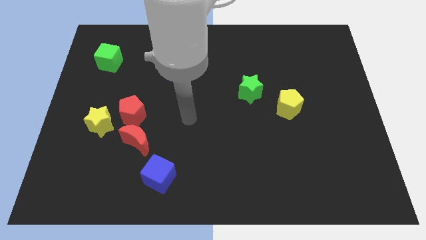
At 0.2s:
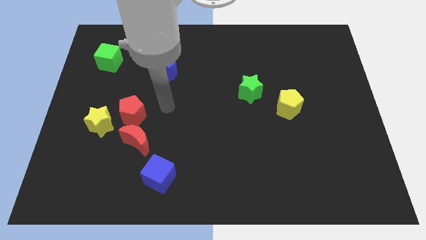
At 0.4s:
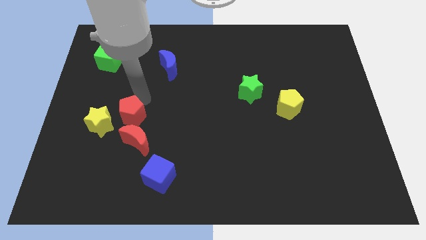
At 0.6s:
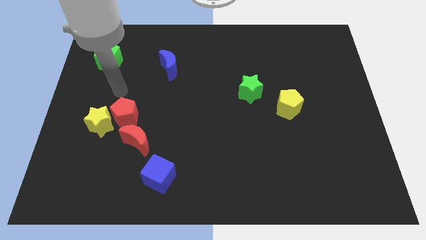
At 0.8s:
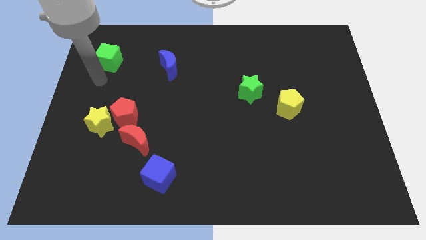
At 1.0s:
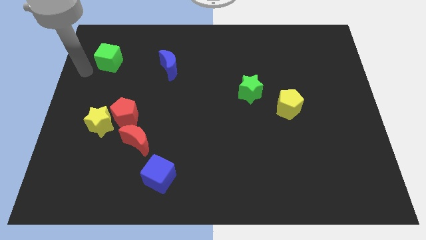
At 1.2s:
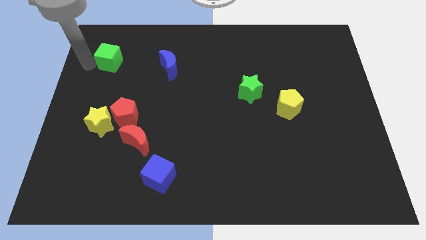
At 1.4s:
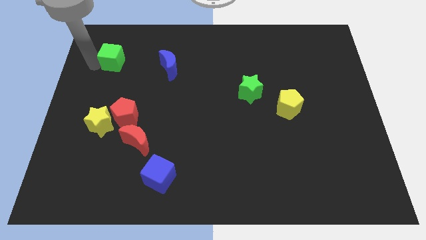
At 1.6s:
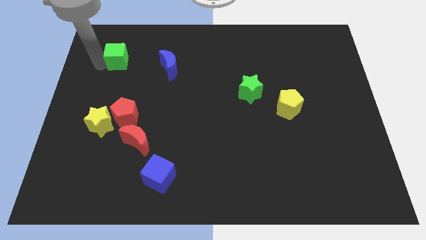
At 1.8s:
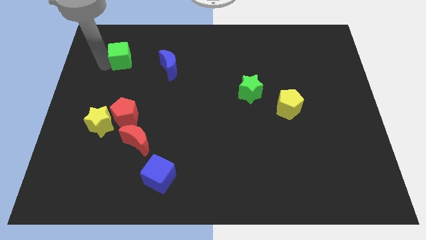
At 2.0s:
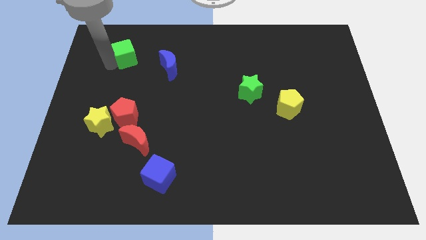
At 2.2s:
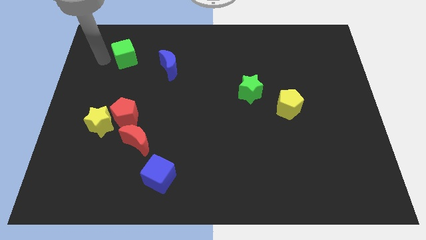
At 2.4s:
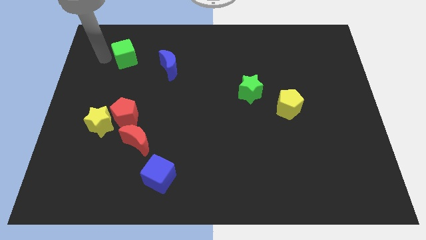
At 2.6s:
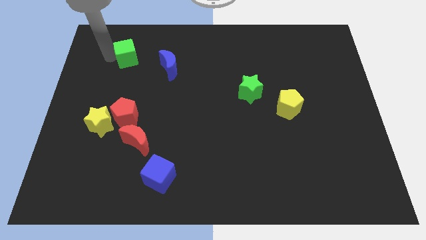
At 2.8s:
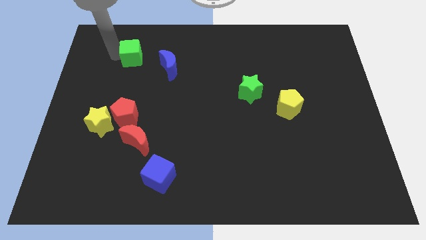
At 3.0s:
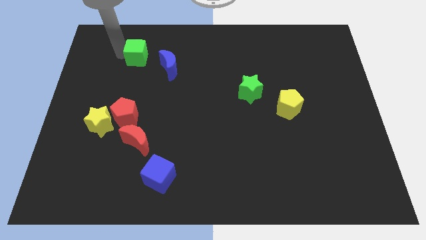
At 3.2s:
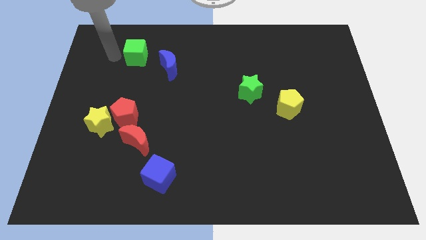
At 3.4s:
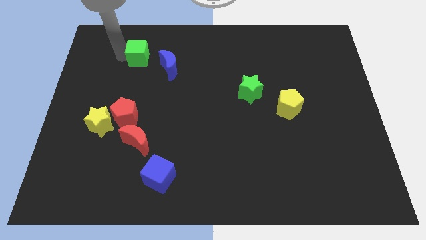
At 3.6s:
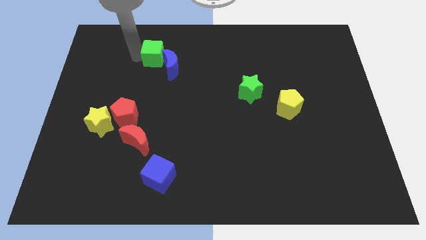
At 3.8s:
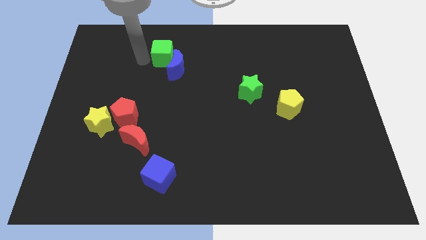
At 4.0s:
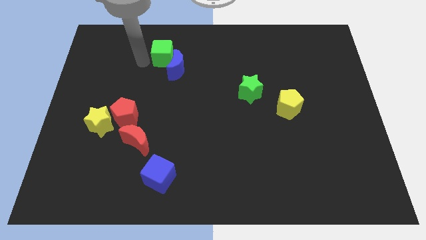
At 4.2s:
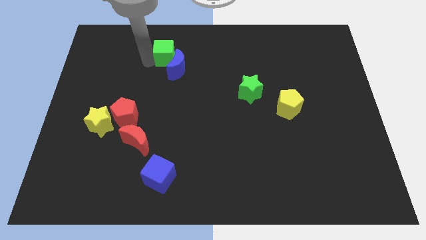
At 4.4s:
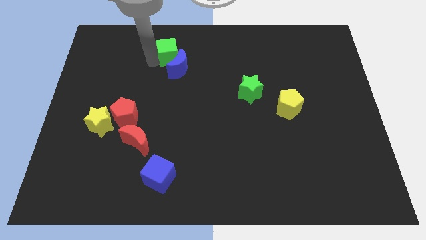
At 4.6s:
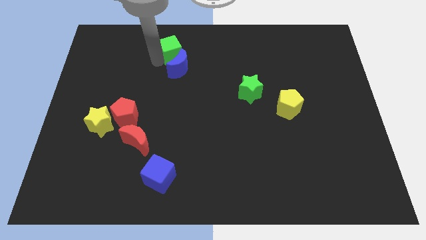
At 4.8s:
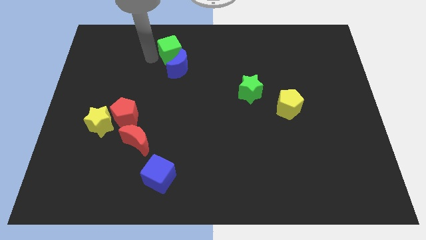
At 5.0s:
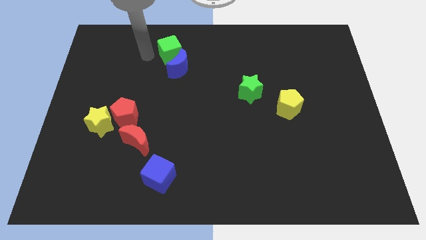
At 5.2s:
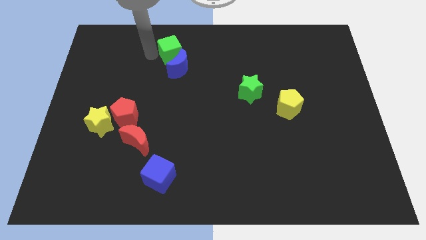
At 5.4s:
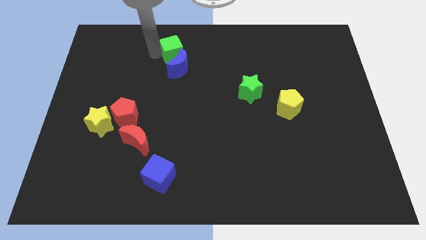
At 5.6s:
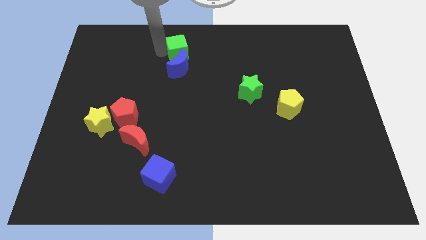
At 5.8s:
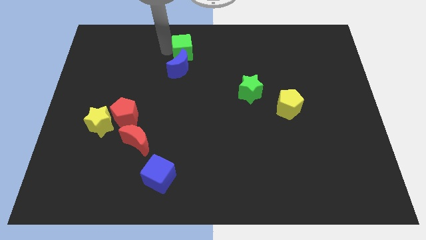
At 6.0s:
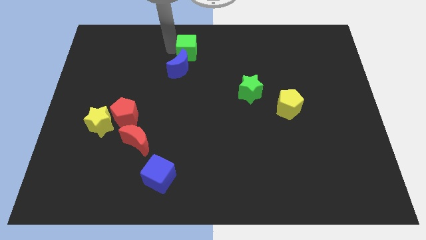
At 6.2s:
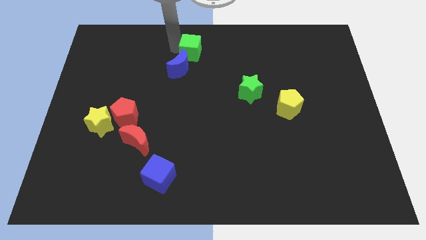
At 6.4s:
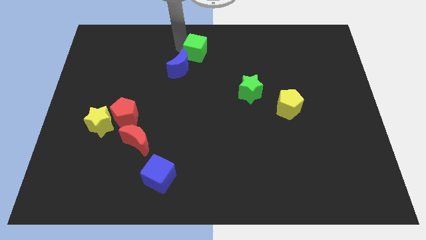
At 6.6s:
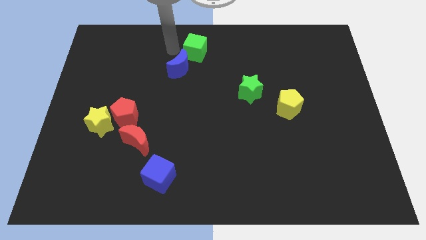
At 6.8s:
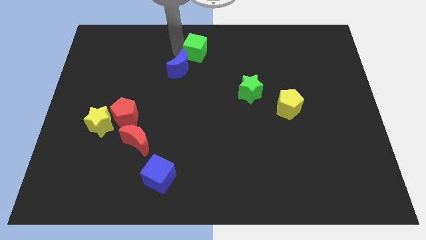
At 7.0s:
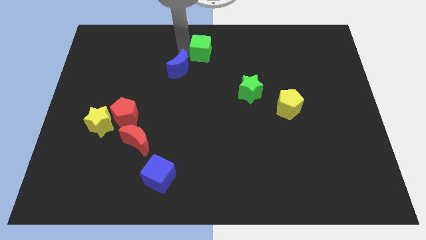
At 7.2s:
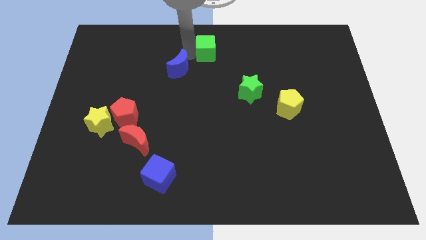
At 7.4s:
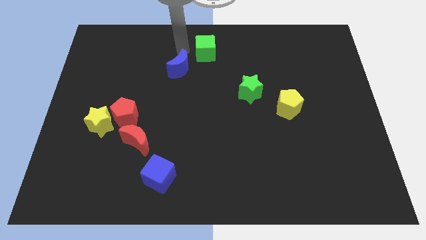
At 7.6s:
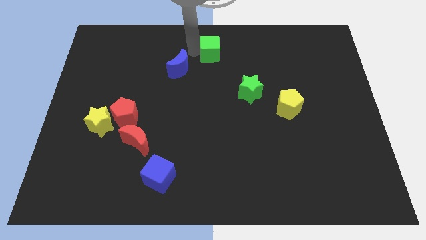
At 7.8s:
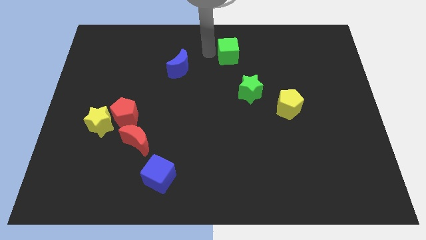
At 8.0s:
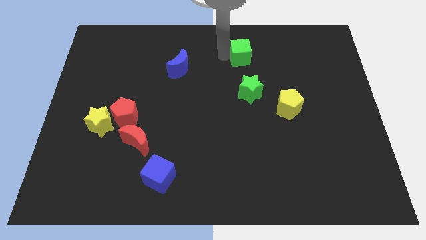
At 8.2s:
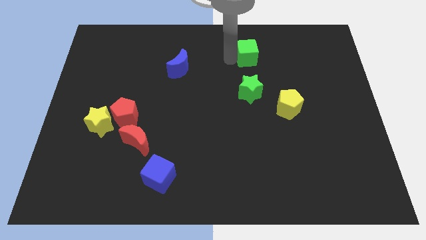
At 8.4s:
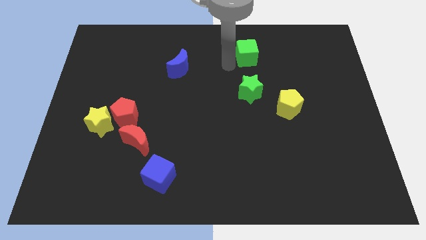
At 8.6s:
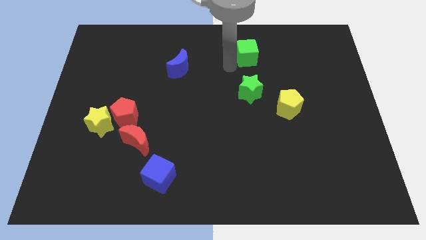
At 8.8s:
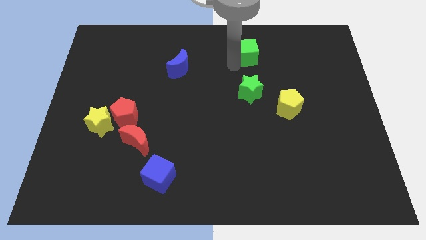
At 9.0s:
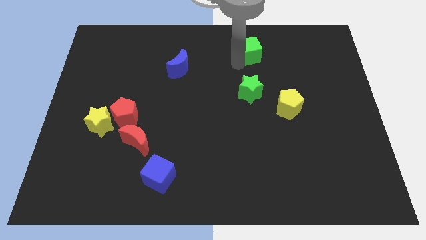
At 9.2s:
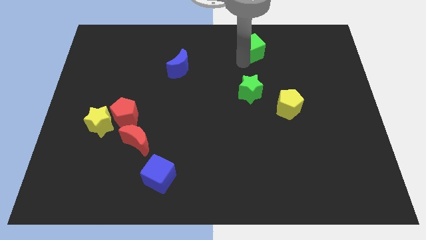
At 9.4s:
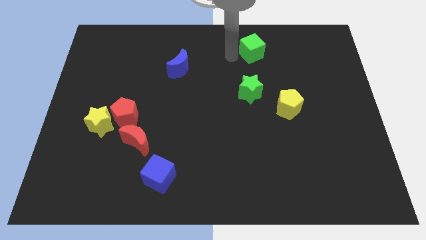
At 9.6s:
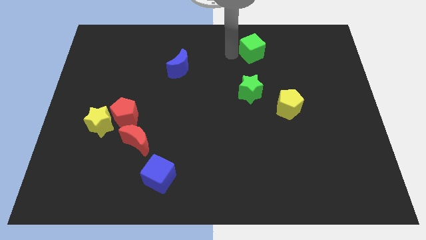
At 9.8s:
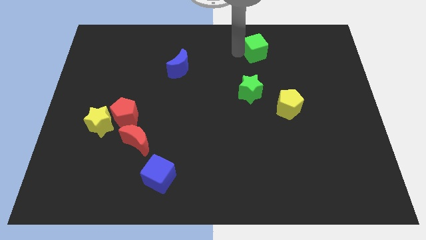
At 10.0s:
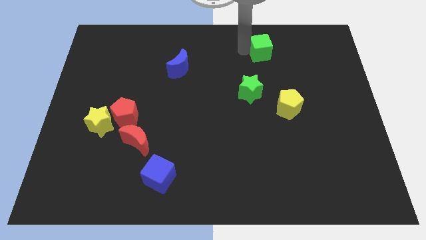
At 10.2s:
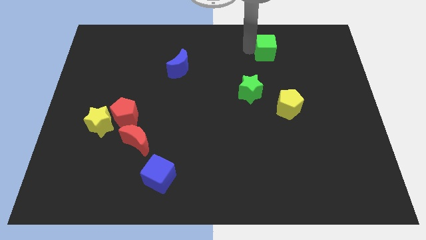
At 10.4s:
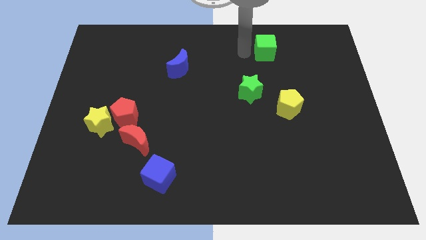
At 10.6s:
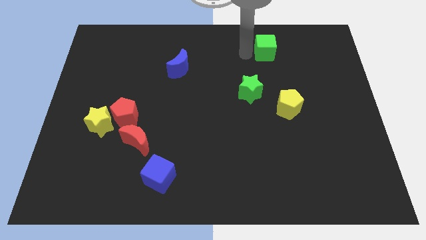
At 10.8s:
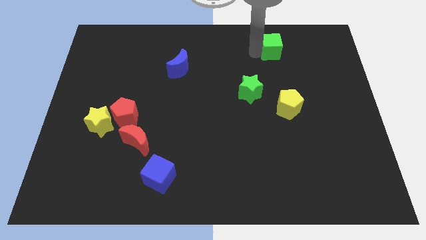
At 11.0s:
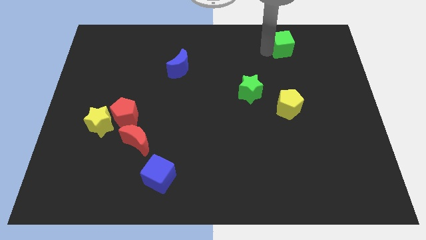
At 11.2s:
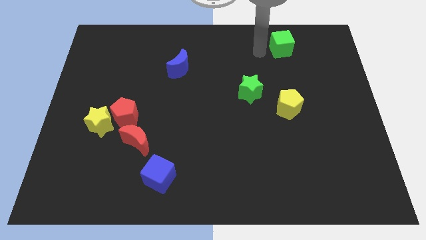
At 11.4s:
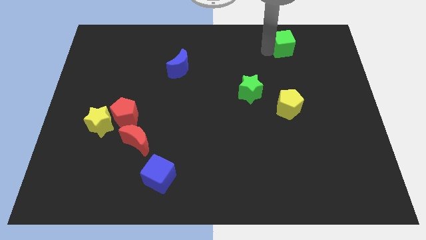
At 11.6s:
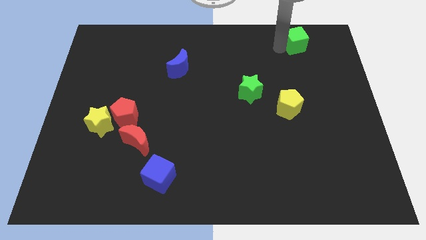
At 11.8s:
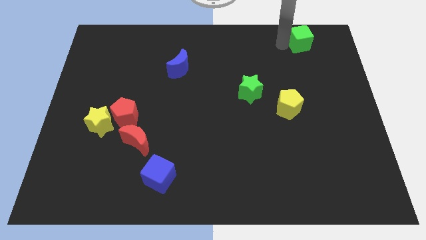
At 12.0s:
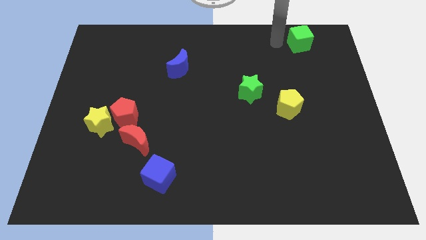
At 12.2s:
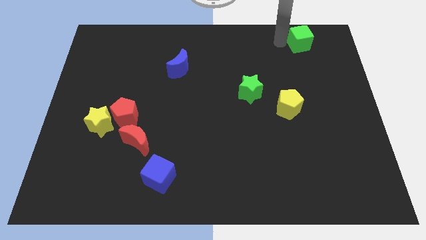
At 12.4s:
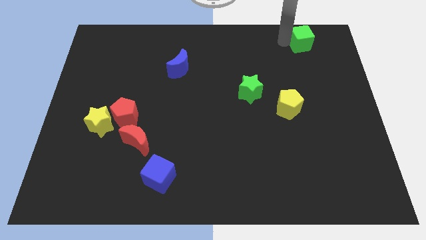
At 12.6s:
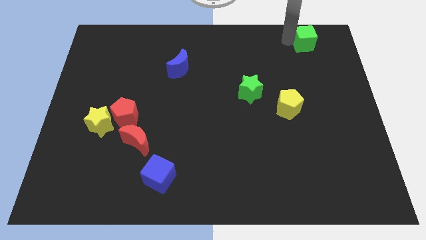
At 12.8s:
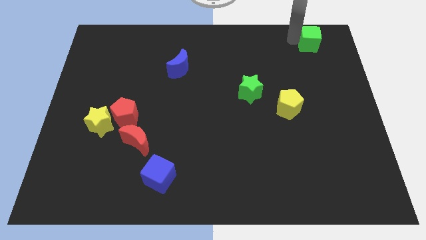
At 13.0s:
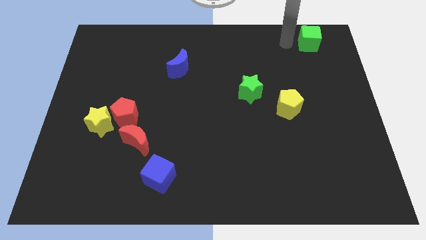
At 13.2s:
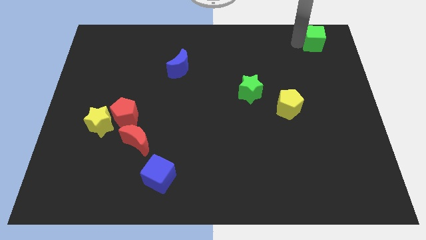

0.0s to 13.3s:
put the green cube to the top right of the board

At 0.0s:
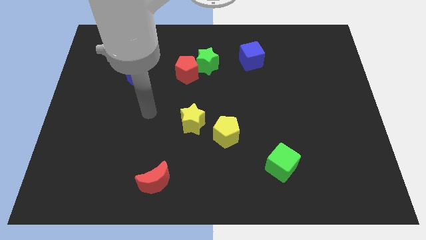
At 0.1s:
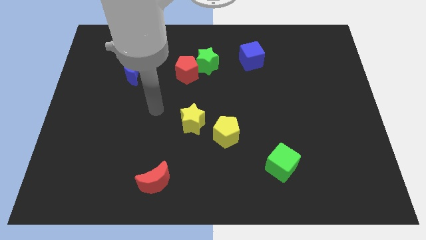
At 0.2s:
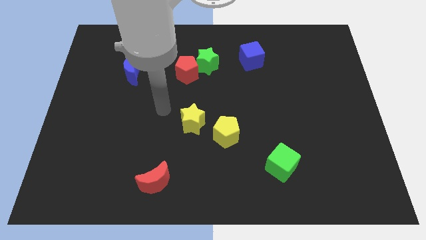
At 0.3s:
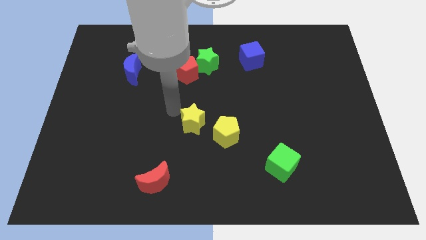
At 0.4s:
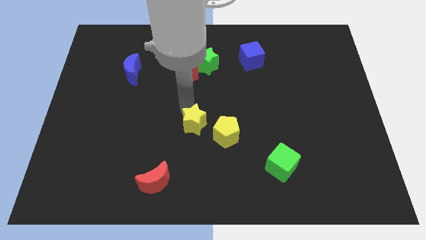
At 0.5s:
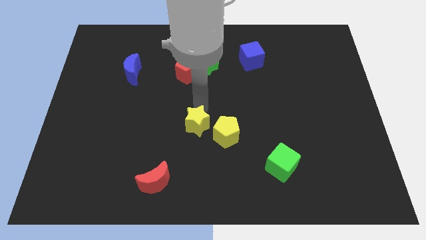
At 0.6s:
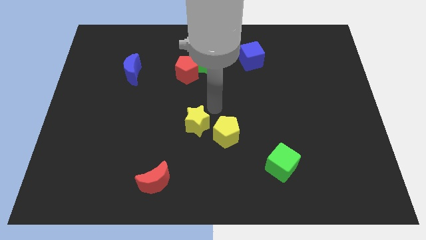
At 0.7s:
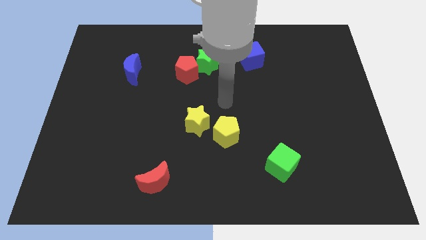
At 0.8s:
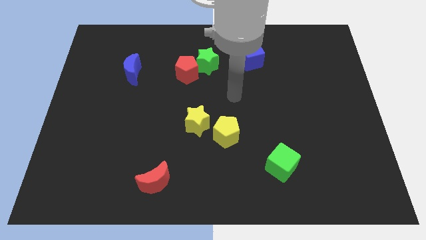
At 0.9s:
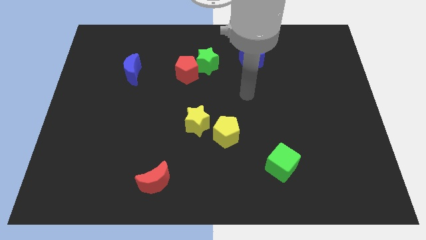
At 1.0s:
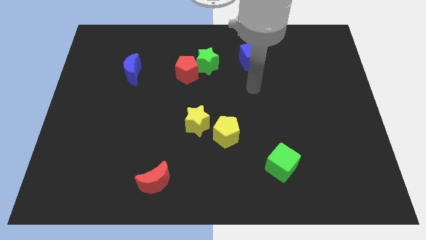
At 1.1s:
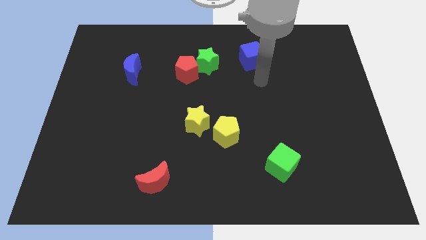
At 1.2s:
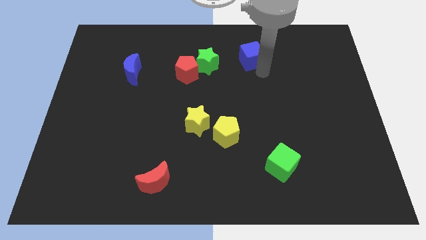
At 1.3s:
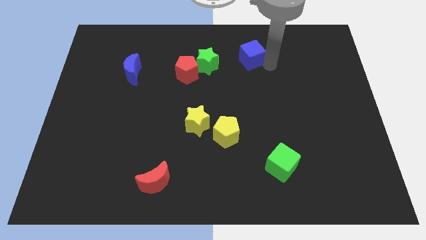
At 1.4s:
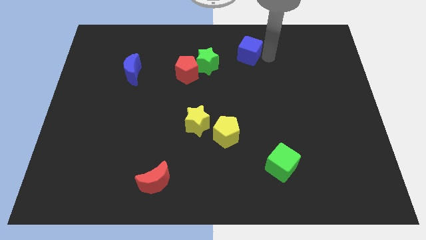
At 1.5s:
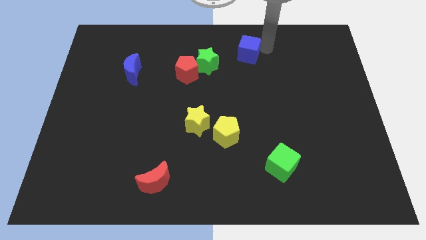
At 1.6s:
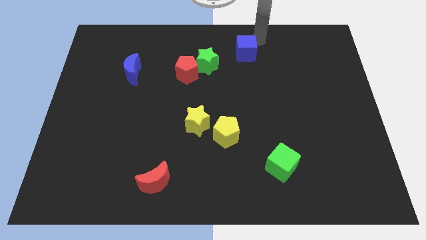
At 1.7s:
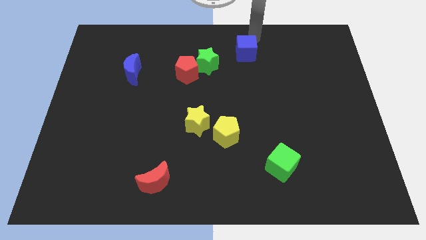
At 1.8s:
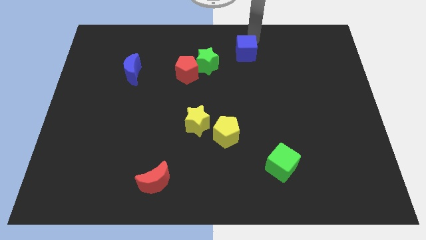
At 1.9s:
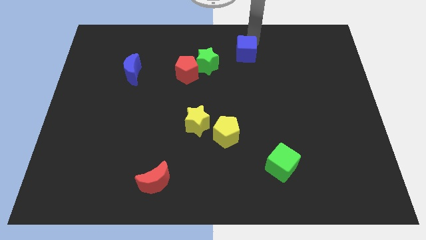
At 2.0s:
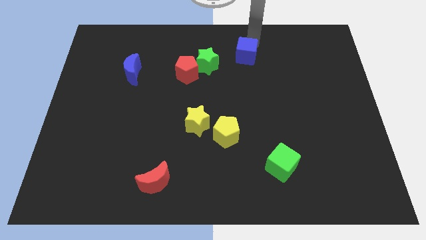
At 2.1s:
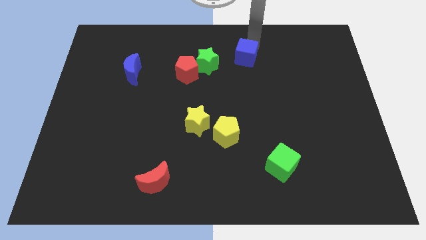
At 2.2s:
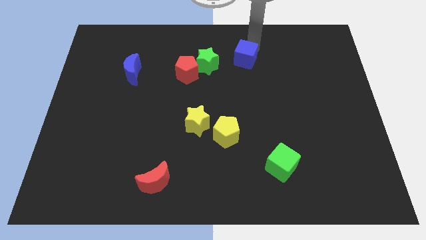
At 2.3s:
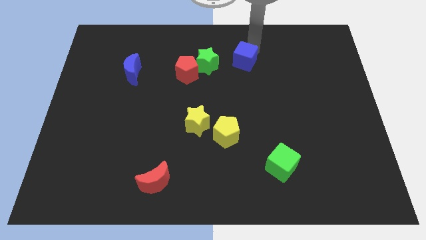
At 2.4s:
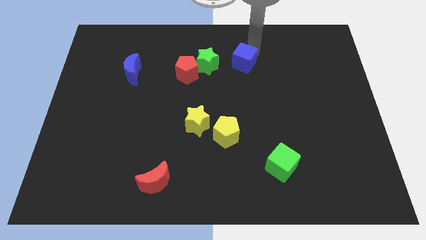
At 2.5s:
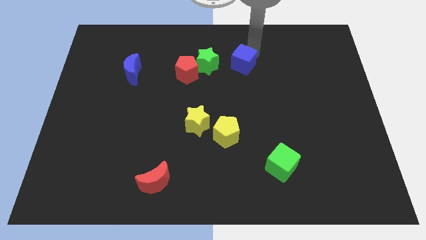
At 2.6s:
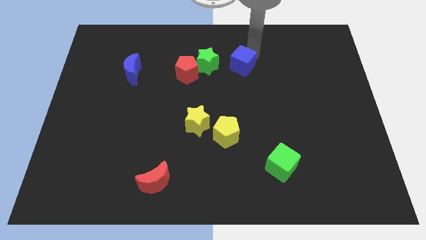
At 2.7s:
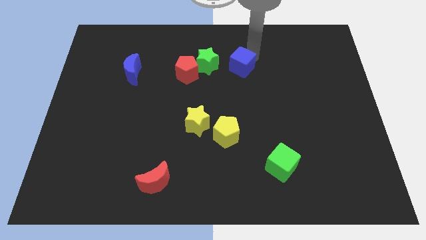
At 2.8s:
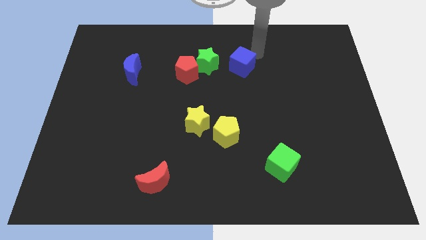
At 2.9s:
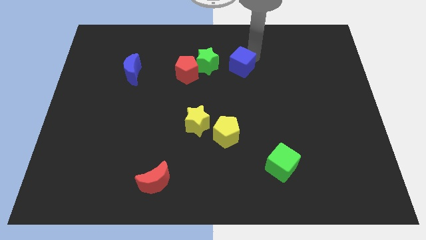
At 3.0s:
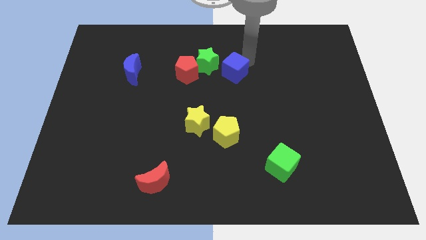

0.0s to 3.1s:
move the blue cube to the middle of the board
